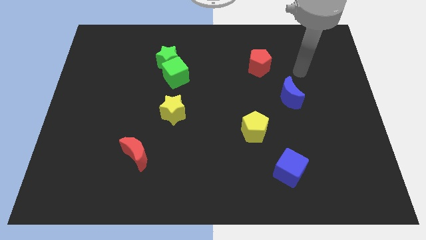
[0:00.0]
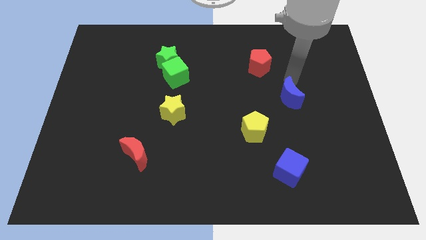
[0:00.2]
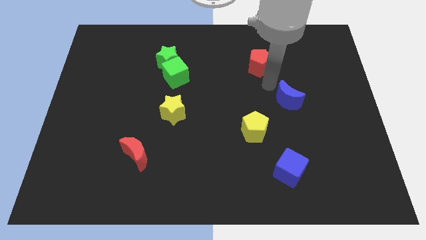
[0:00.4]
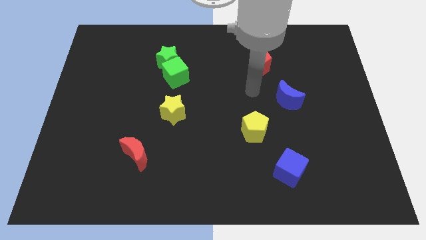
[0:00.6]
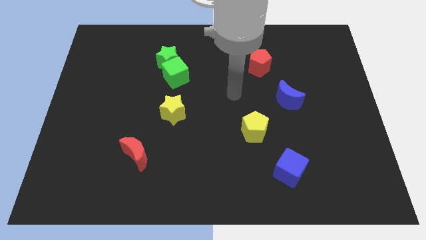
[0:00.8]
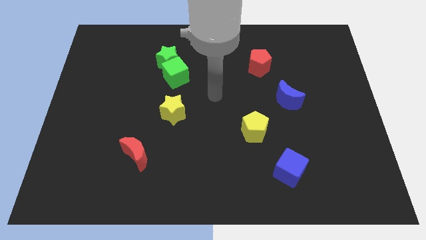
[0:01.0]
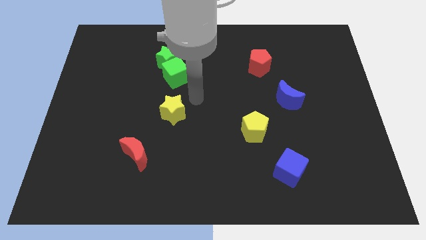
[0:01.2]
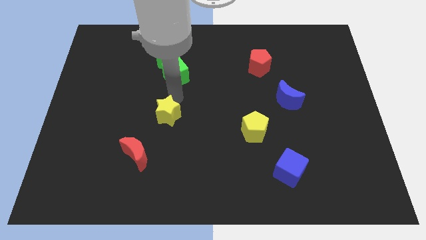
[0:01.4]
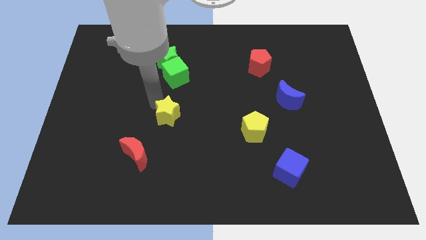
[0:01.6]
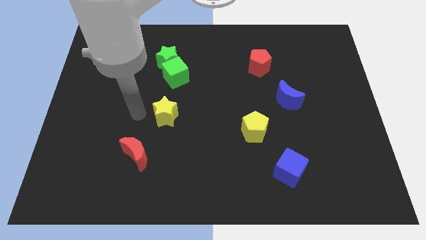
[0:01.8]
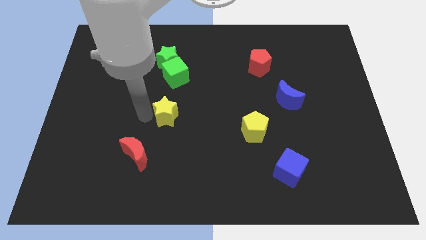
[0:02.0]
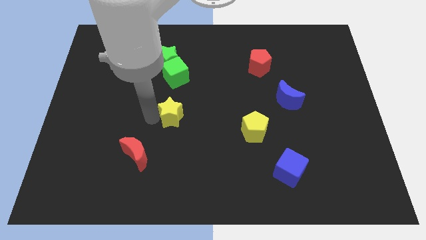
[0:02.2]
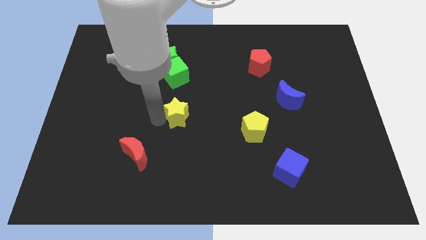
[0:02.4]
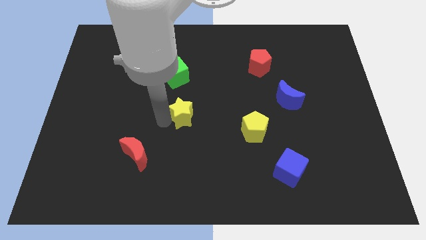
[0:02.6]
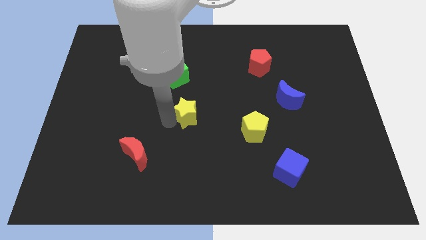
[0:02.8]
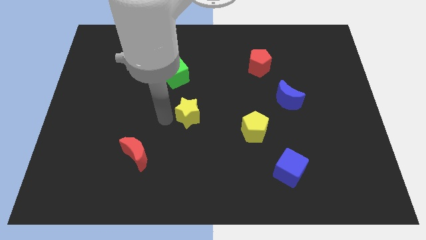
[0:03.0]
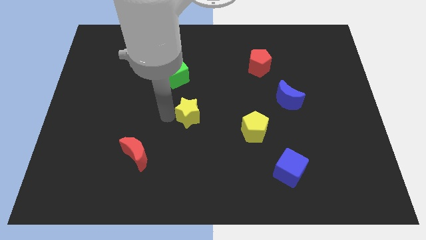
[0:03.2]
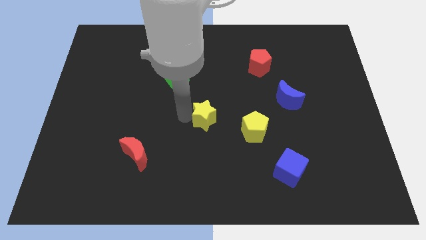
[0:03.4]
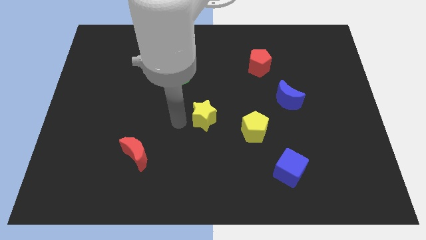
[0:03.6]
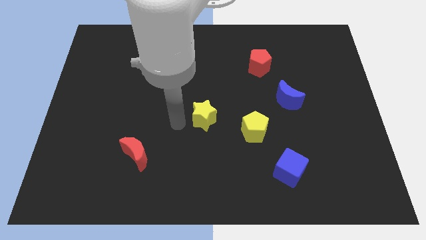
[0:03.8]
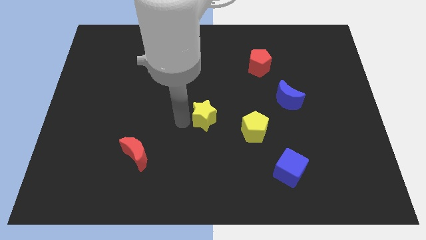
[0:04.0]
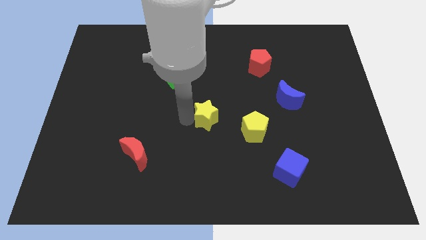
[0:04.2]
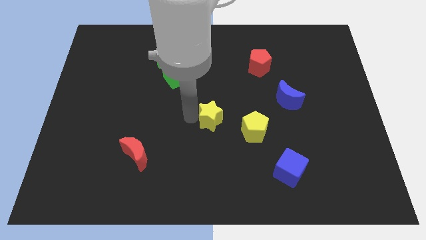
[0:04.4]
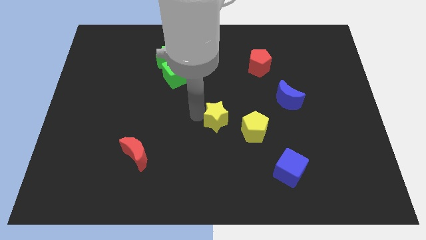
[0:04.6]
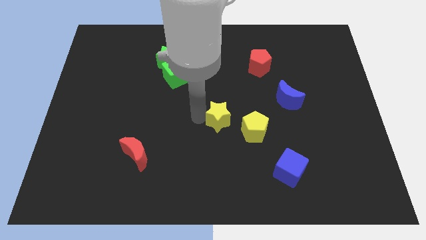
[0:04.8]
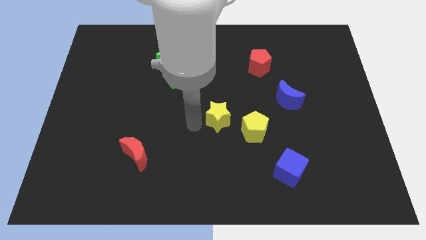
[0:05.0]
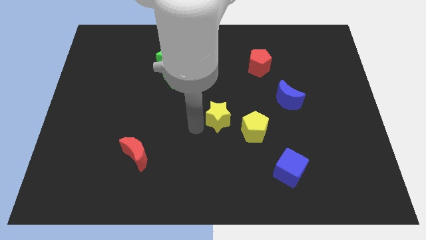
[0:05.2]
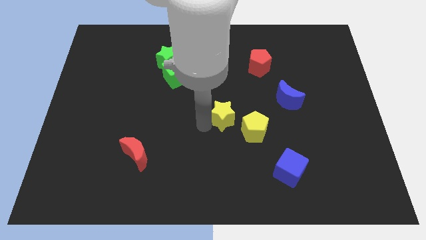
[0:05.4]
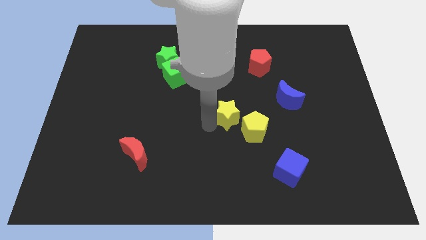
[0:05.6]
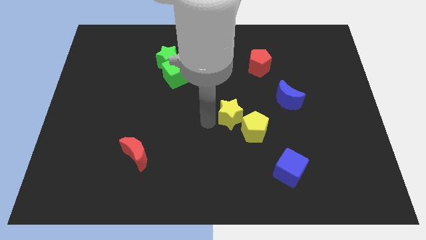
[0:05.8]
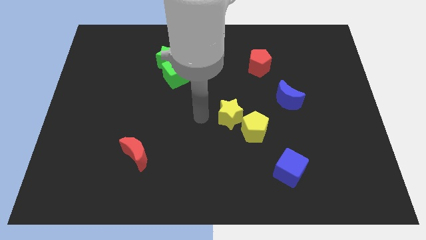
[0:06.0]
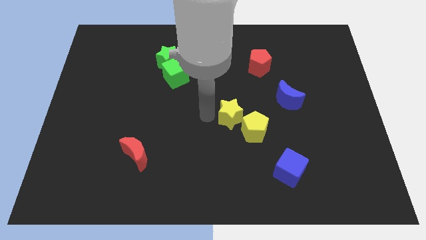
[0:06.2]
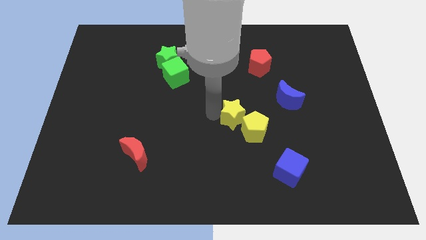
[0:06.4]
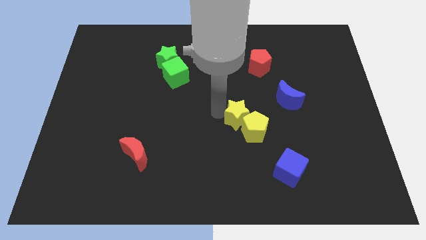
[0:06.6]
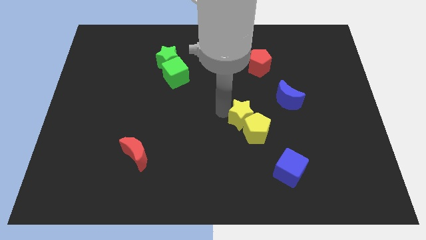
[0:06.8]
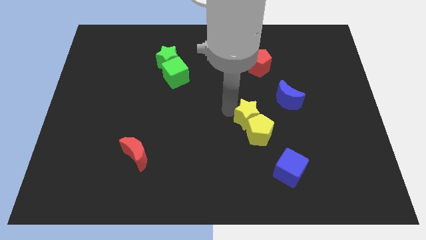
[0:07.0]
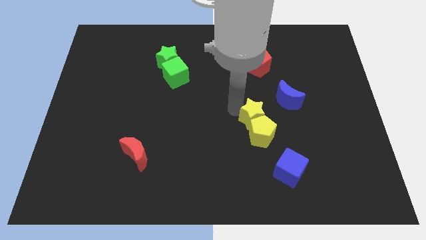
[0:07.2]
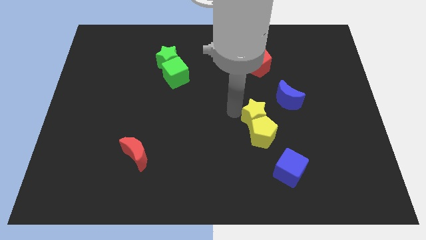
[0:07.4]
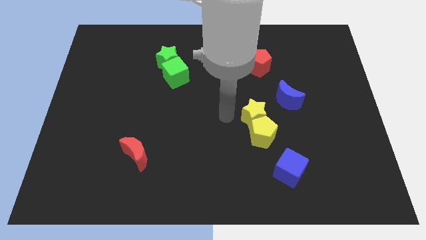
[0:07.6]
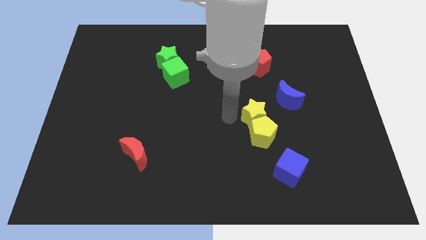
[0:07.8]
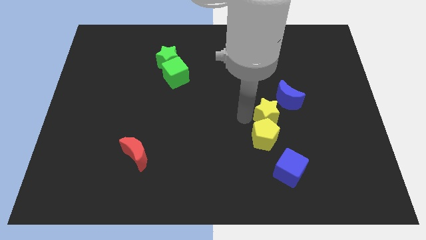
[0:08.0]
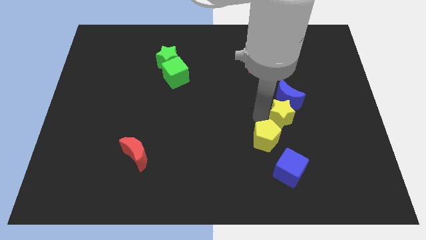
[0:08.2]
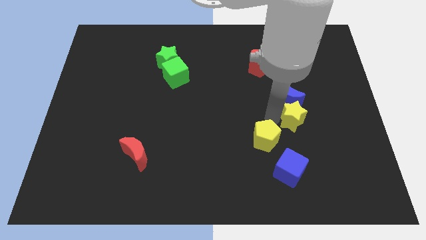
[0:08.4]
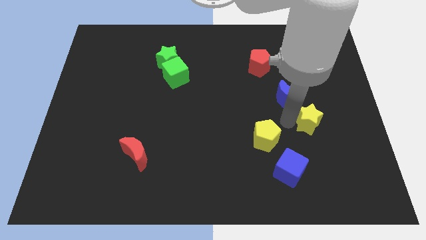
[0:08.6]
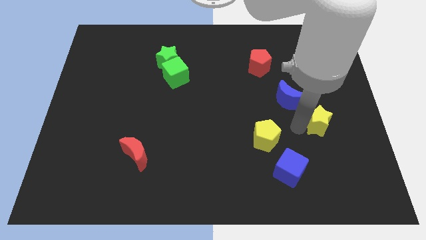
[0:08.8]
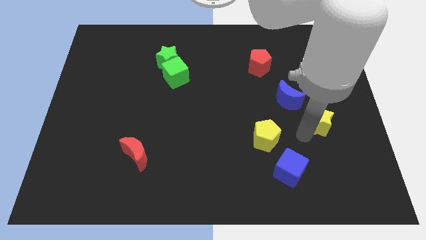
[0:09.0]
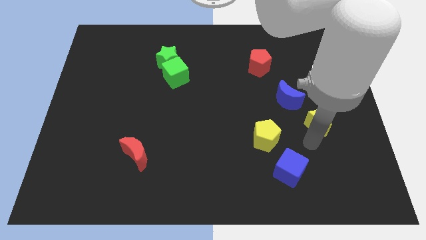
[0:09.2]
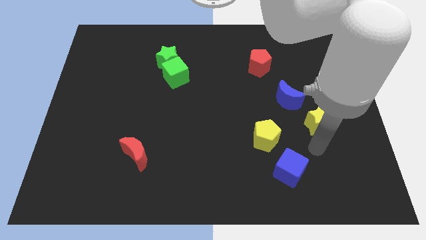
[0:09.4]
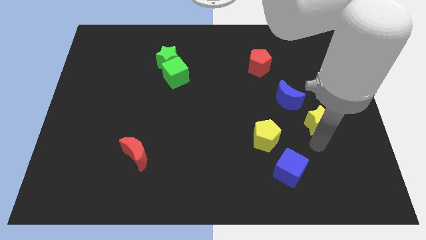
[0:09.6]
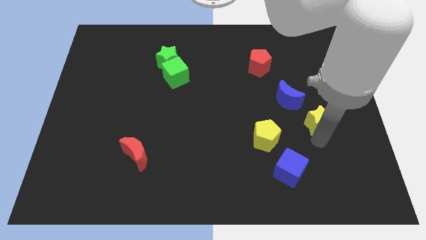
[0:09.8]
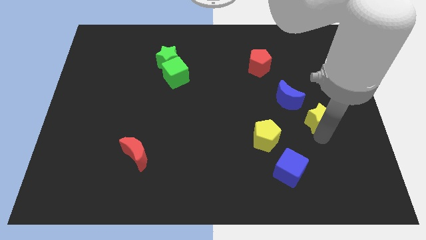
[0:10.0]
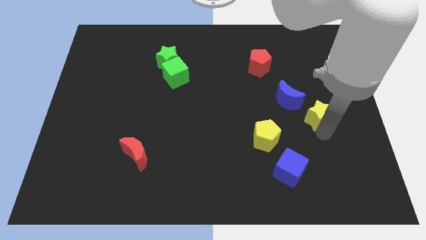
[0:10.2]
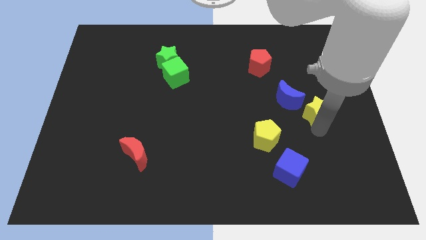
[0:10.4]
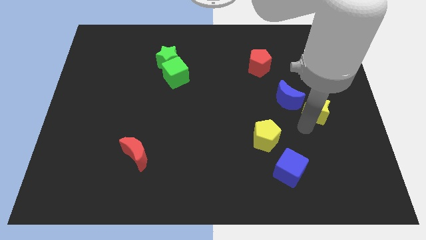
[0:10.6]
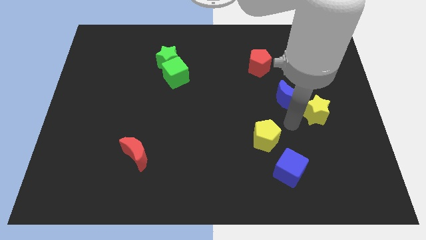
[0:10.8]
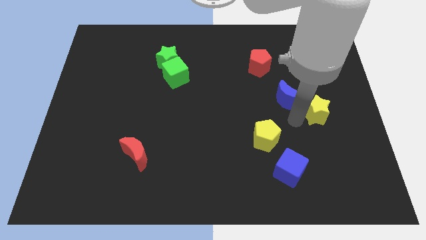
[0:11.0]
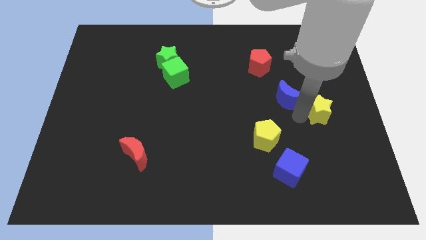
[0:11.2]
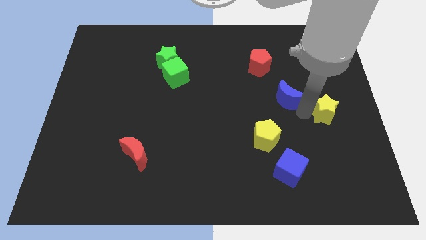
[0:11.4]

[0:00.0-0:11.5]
push the yellow star to the right side

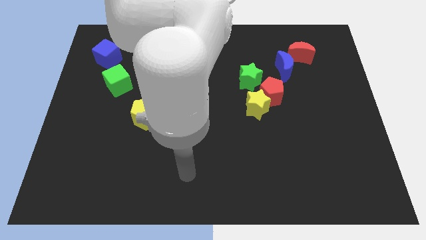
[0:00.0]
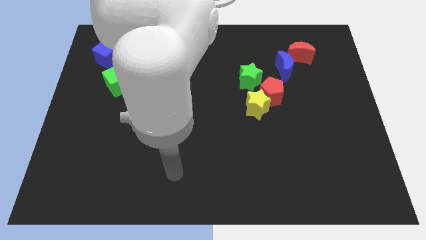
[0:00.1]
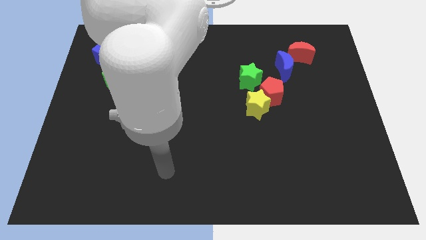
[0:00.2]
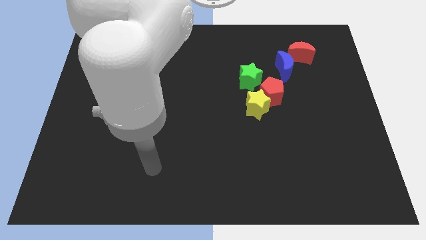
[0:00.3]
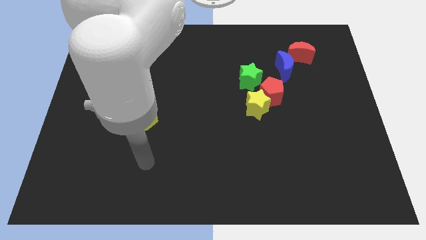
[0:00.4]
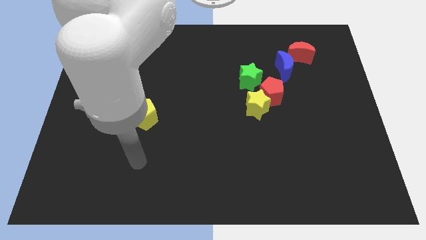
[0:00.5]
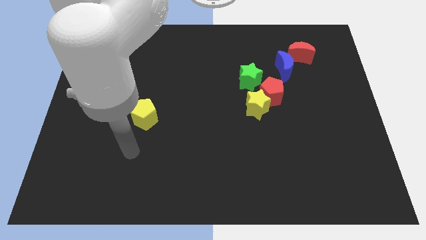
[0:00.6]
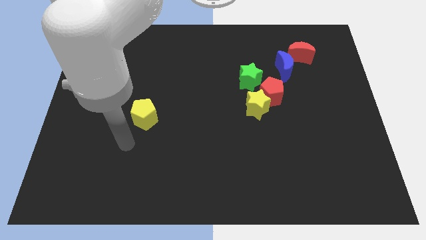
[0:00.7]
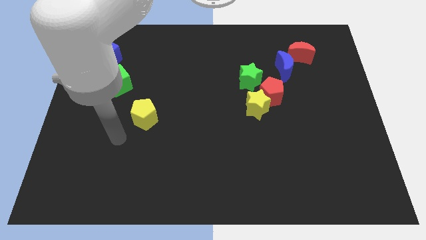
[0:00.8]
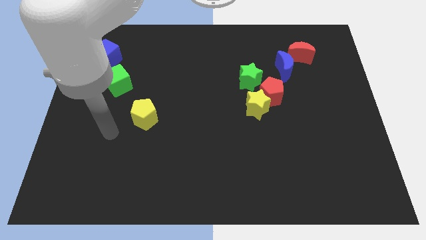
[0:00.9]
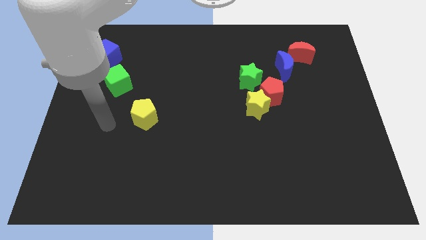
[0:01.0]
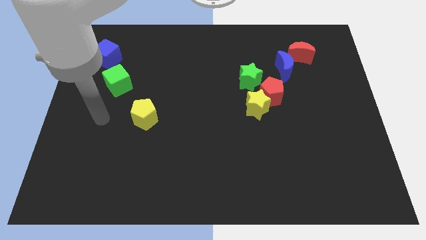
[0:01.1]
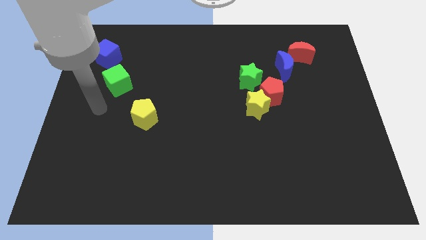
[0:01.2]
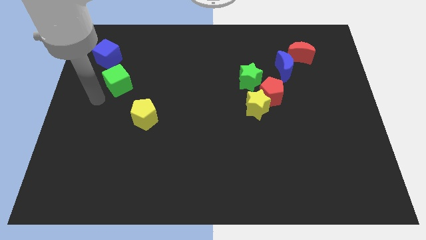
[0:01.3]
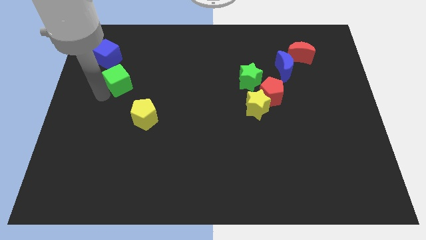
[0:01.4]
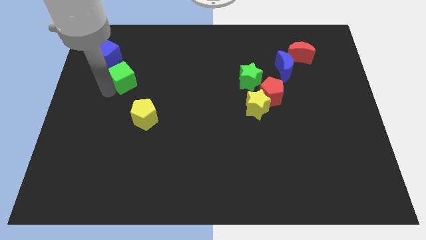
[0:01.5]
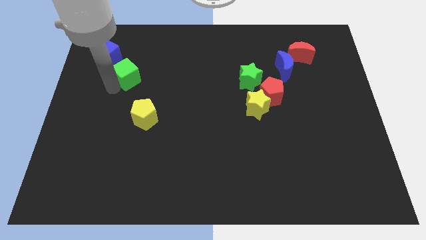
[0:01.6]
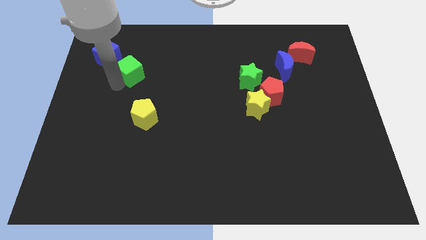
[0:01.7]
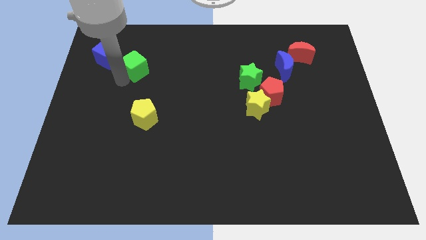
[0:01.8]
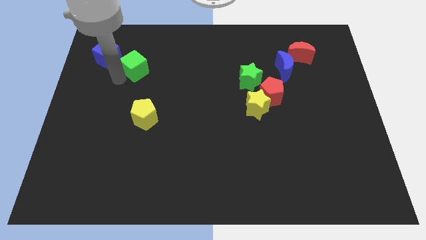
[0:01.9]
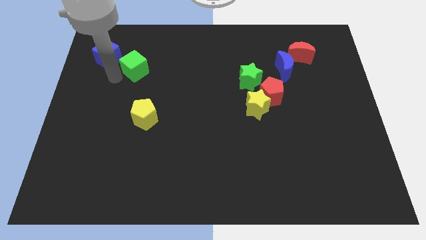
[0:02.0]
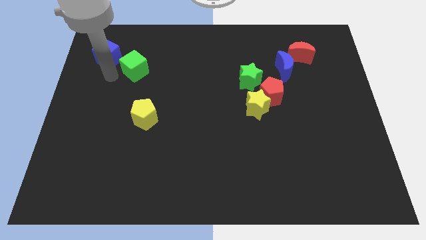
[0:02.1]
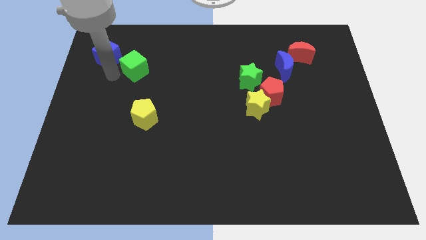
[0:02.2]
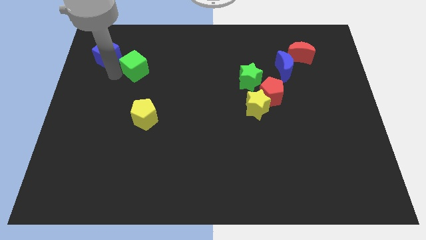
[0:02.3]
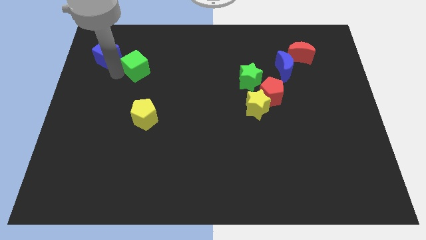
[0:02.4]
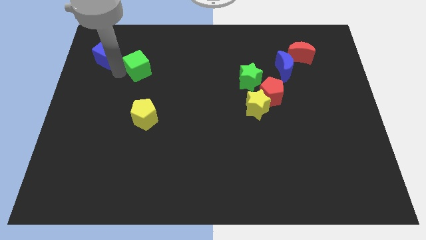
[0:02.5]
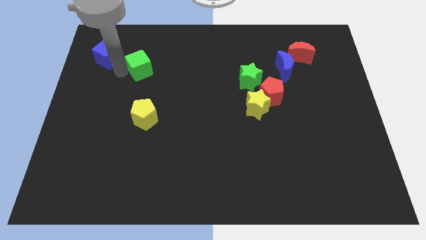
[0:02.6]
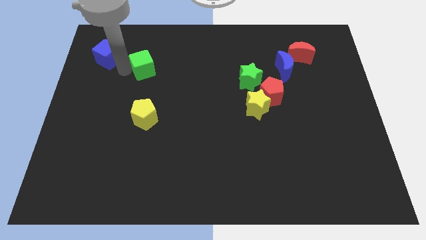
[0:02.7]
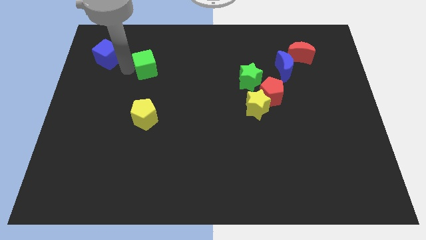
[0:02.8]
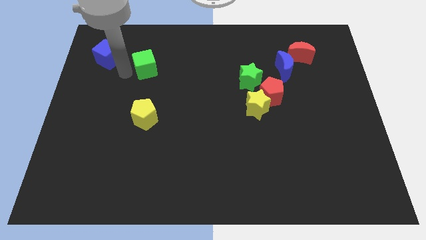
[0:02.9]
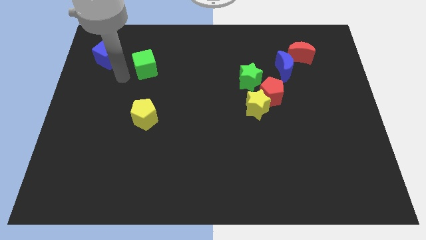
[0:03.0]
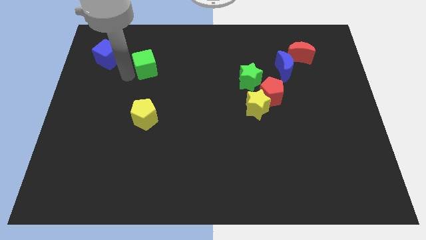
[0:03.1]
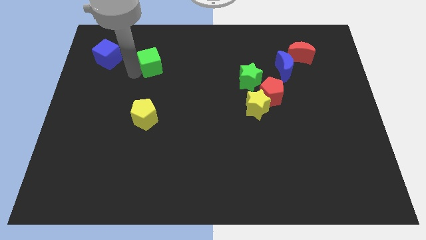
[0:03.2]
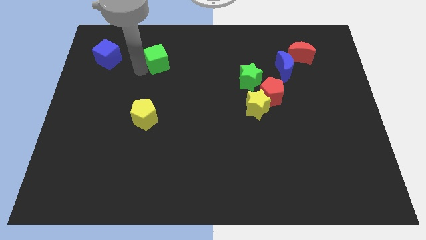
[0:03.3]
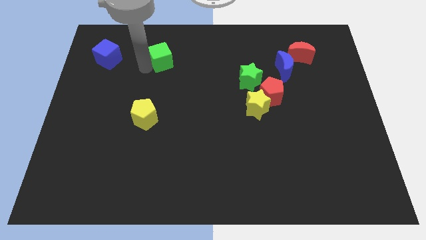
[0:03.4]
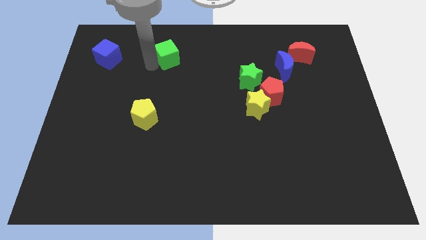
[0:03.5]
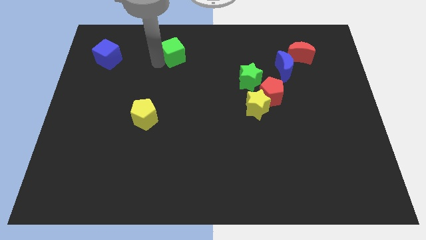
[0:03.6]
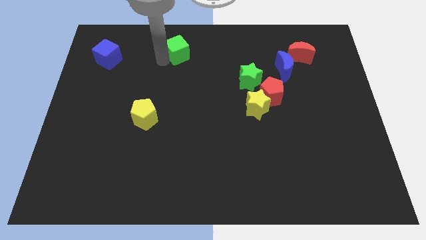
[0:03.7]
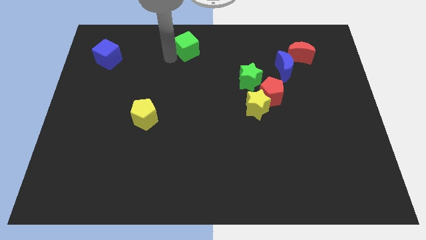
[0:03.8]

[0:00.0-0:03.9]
slide the green cube to the towards your base
